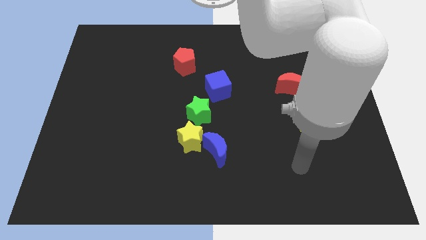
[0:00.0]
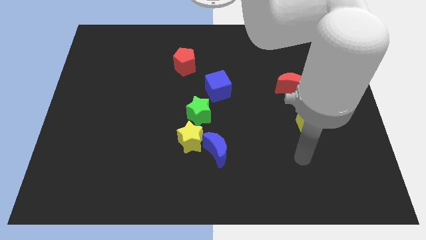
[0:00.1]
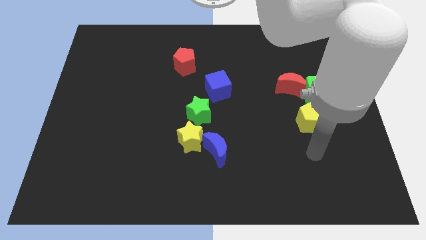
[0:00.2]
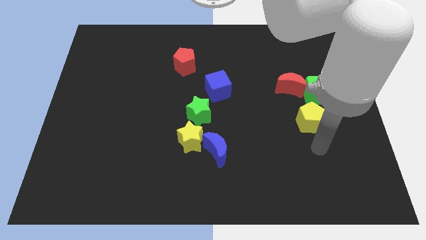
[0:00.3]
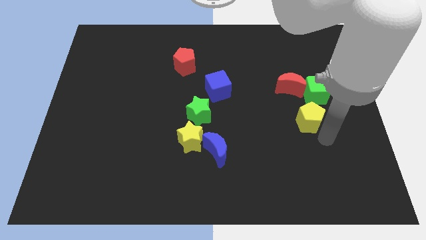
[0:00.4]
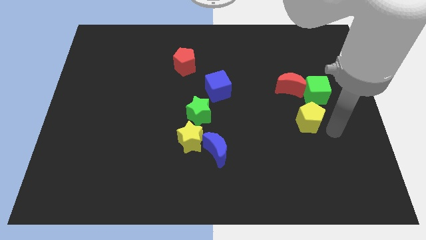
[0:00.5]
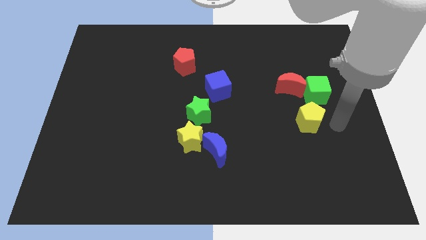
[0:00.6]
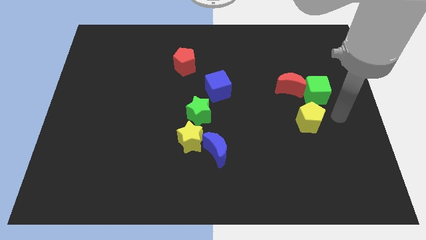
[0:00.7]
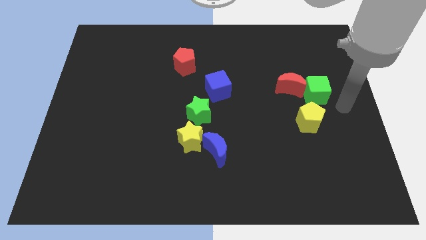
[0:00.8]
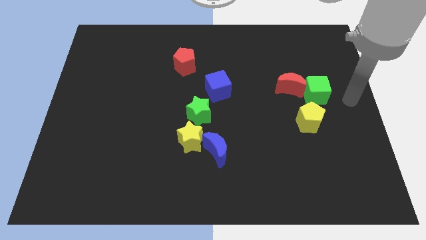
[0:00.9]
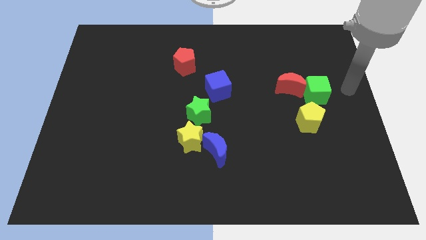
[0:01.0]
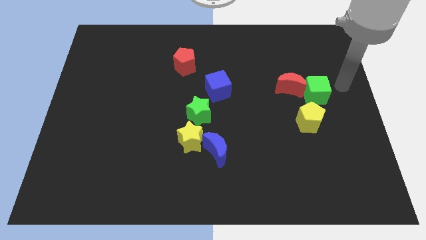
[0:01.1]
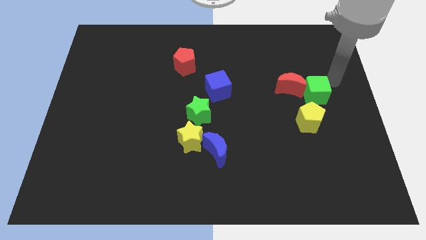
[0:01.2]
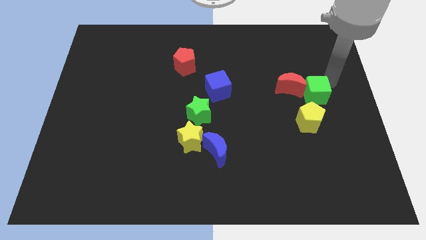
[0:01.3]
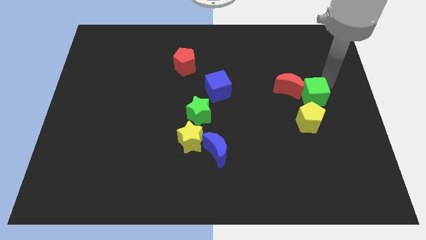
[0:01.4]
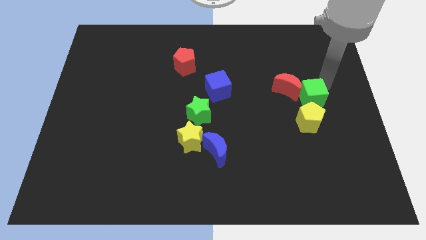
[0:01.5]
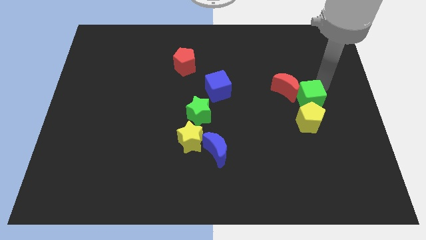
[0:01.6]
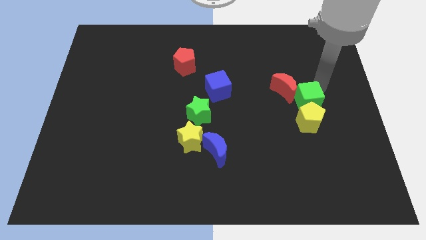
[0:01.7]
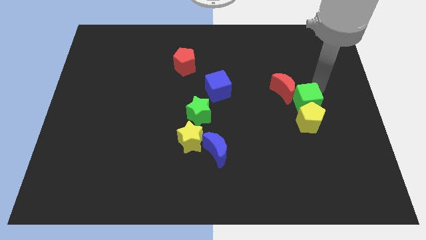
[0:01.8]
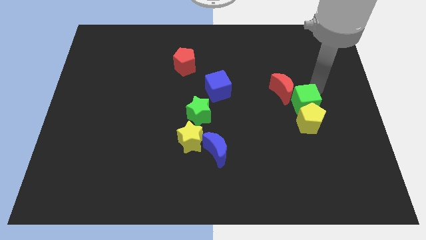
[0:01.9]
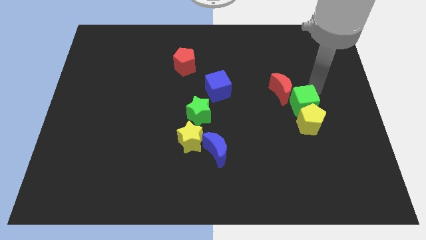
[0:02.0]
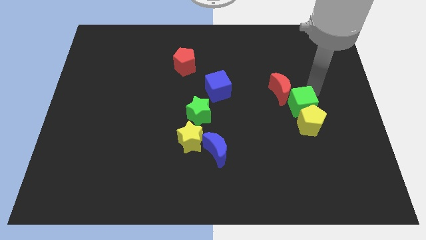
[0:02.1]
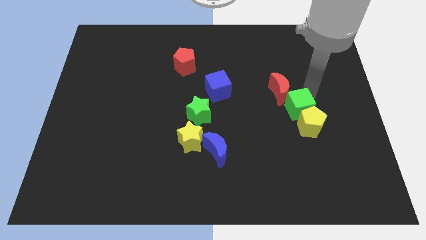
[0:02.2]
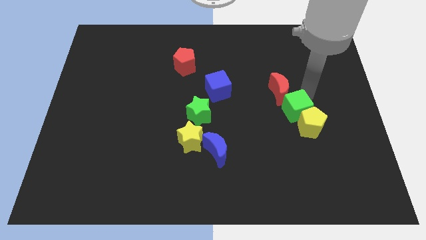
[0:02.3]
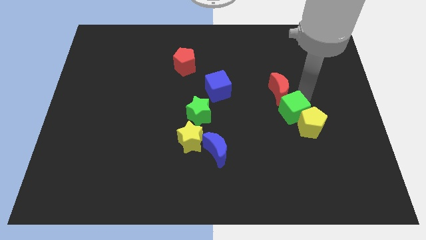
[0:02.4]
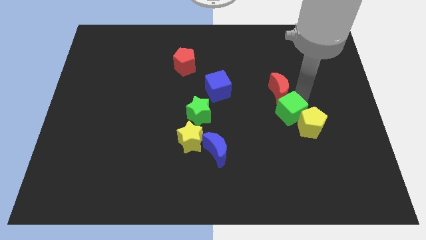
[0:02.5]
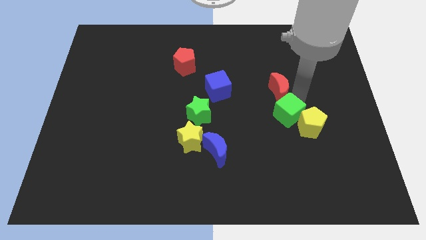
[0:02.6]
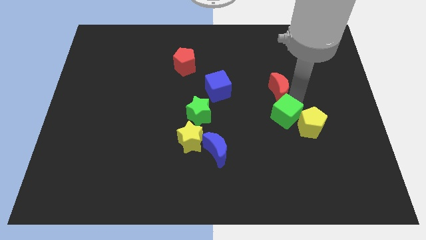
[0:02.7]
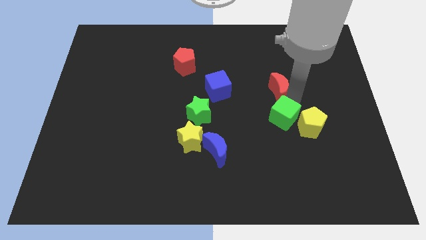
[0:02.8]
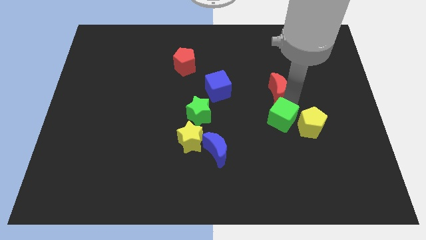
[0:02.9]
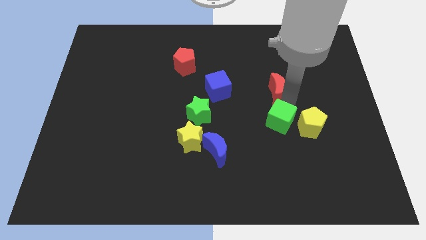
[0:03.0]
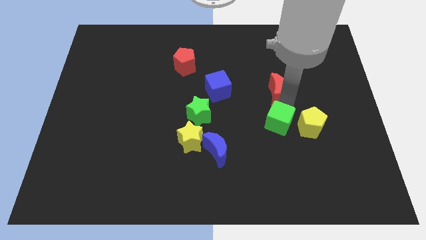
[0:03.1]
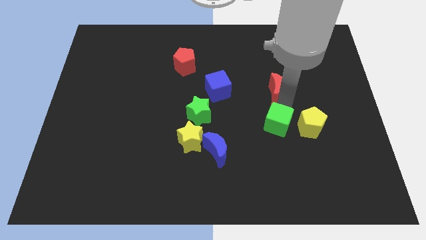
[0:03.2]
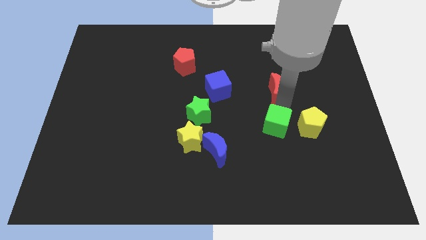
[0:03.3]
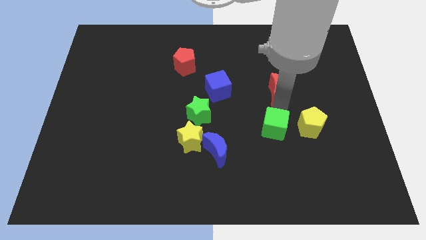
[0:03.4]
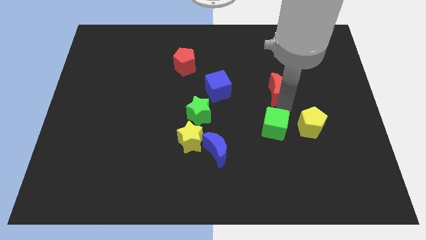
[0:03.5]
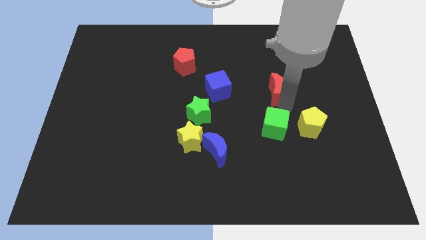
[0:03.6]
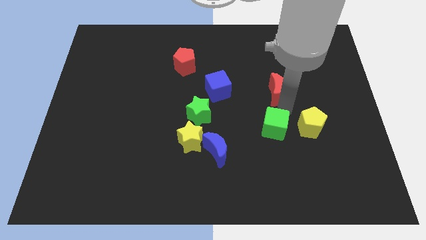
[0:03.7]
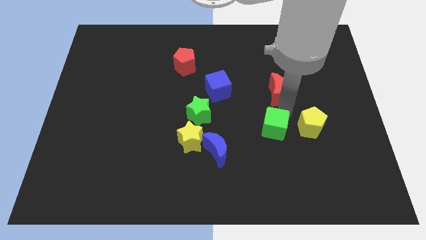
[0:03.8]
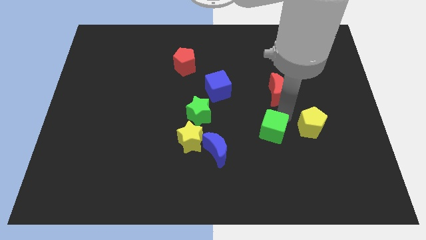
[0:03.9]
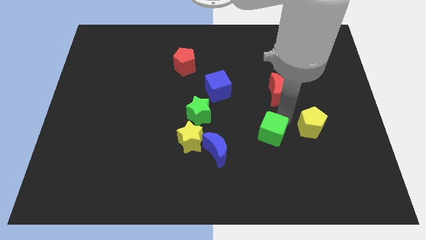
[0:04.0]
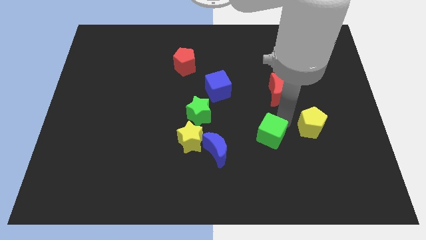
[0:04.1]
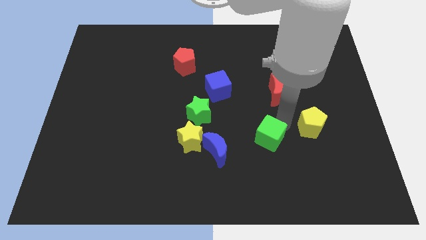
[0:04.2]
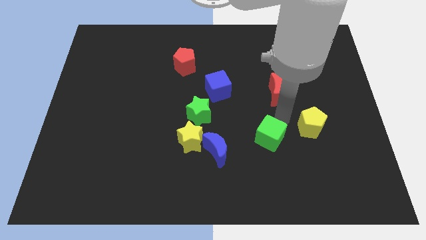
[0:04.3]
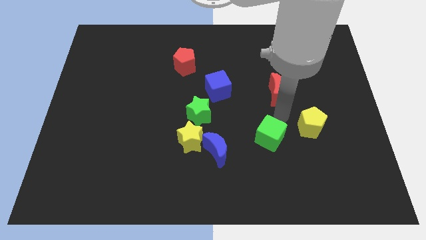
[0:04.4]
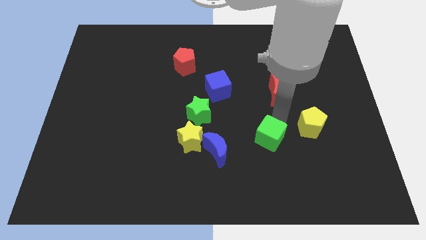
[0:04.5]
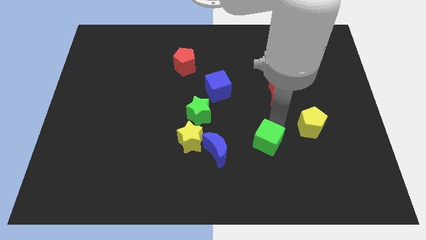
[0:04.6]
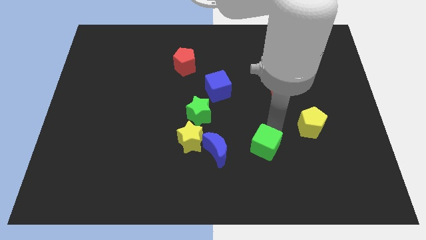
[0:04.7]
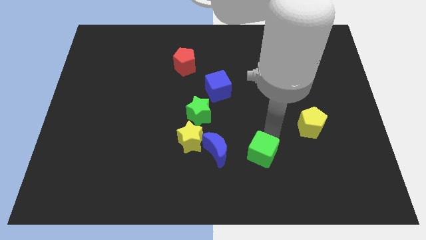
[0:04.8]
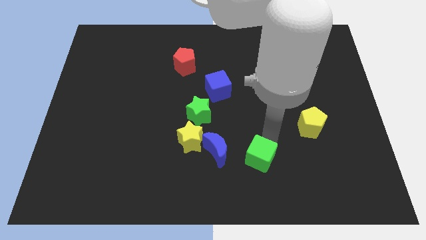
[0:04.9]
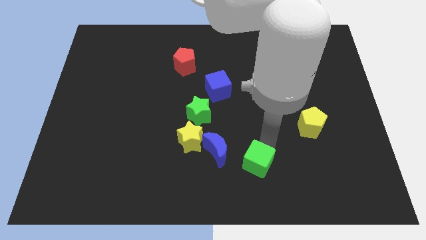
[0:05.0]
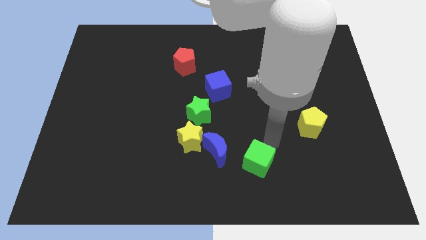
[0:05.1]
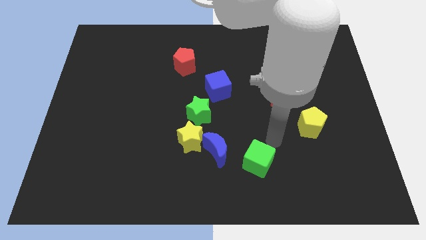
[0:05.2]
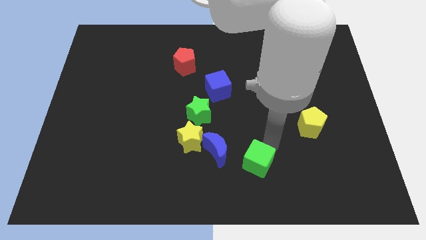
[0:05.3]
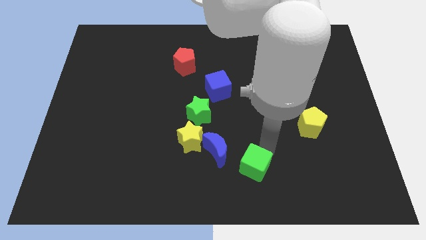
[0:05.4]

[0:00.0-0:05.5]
push the green cube to the bottom

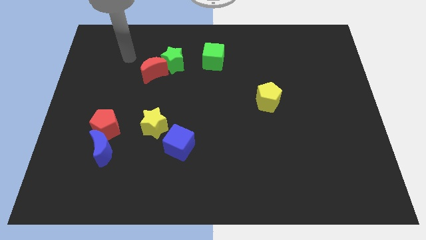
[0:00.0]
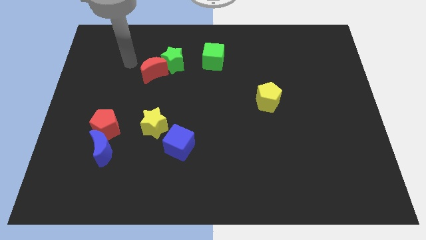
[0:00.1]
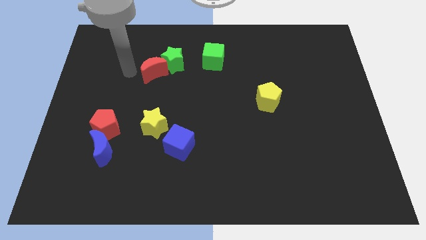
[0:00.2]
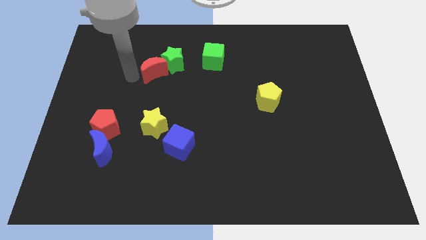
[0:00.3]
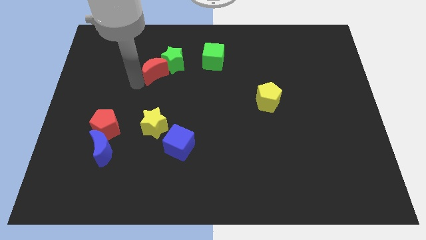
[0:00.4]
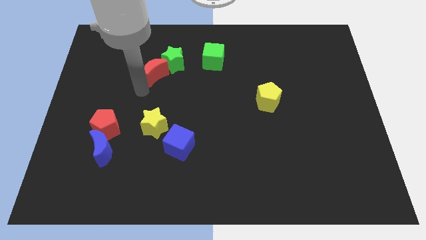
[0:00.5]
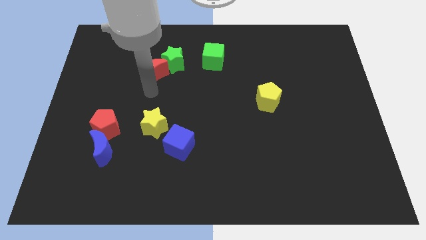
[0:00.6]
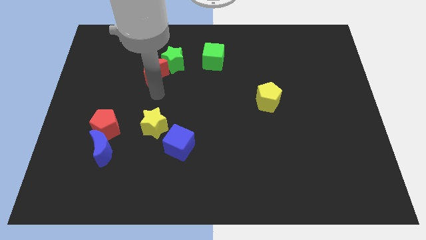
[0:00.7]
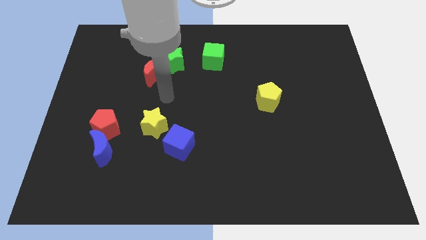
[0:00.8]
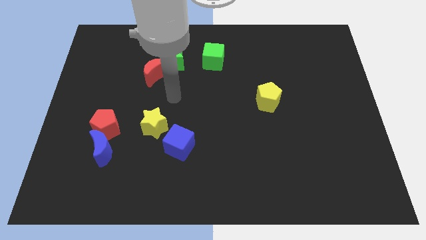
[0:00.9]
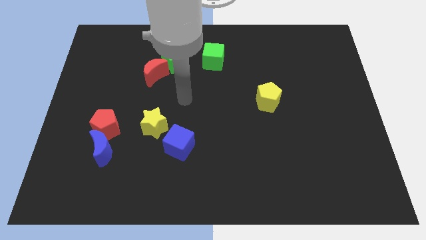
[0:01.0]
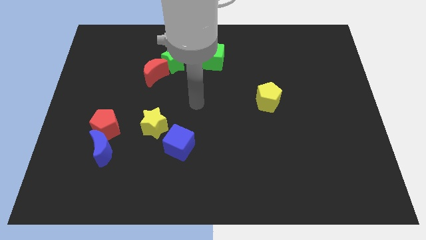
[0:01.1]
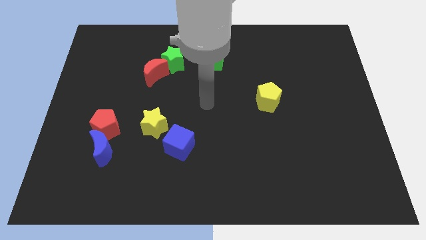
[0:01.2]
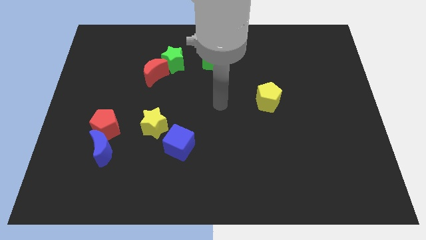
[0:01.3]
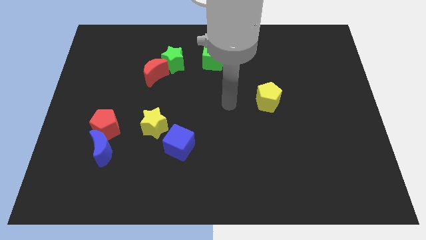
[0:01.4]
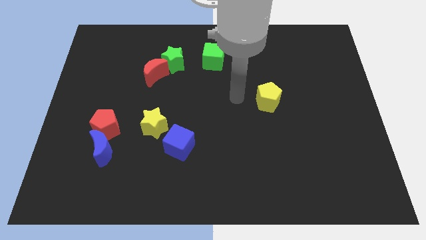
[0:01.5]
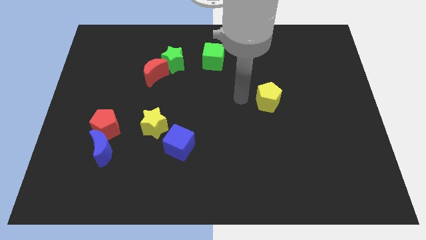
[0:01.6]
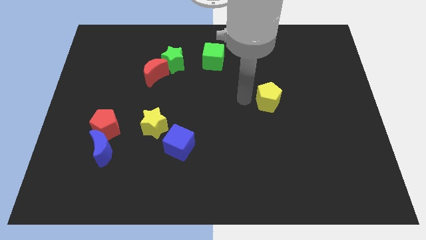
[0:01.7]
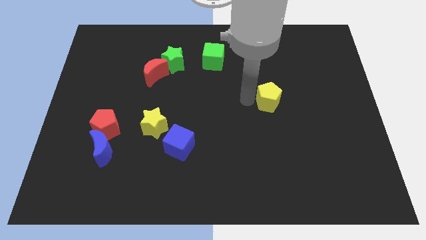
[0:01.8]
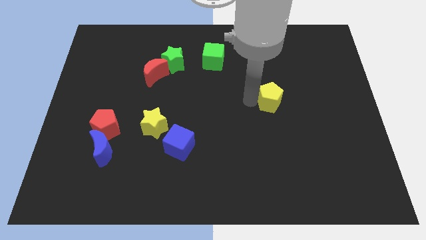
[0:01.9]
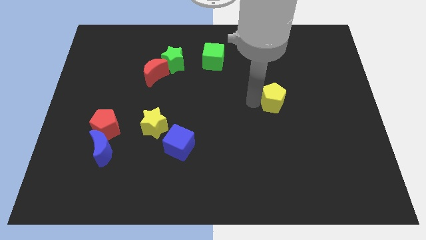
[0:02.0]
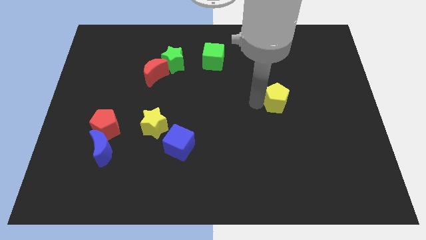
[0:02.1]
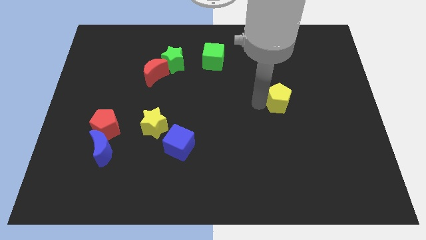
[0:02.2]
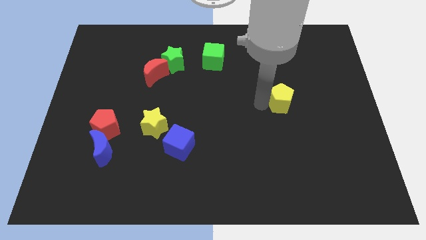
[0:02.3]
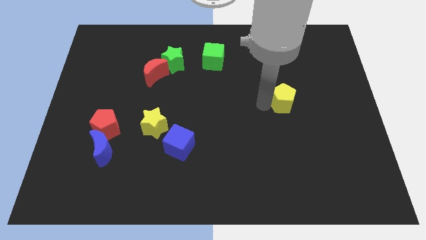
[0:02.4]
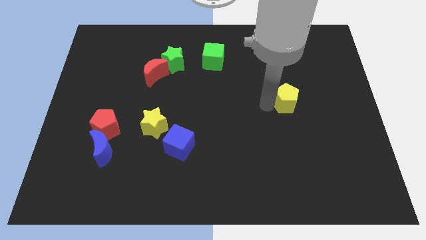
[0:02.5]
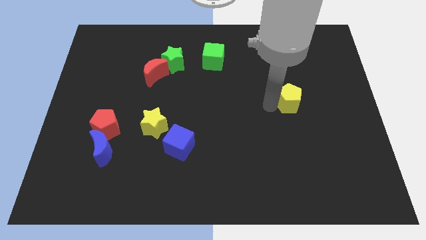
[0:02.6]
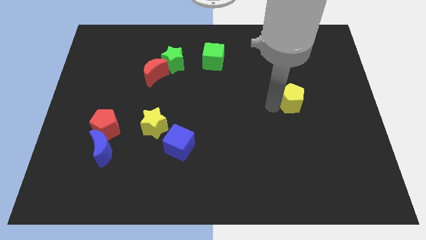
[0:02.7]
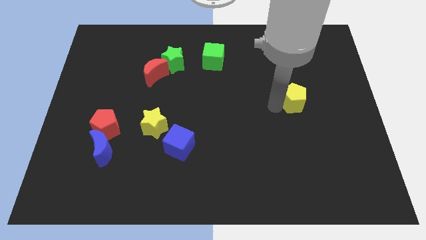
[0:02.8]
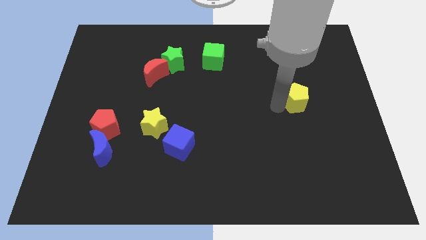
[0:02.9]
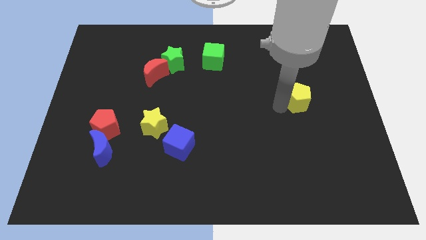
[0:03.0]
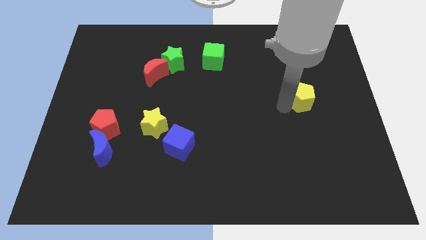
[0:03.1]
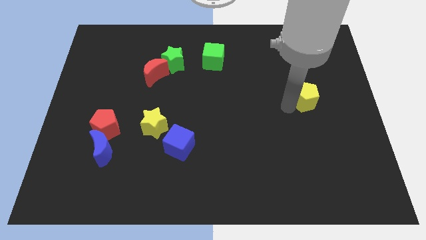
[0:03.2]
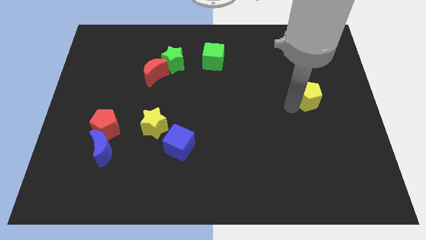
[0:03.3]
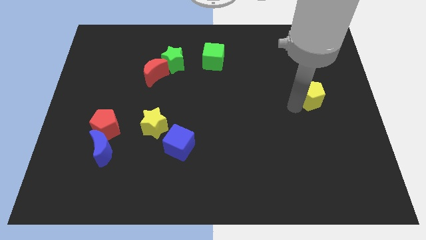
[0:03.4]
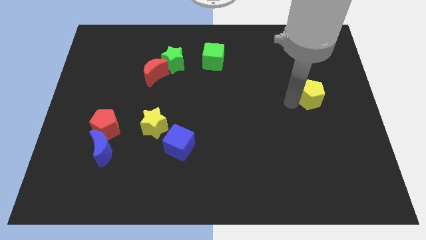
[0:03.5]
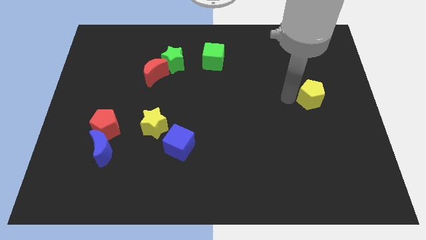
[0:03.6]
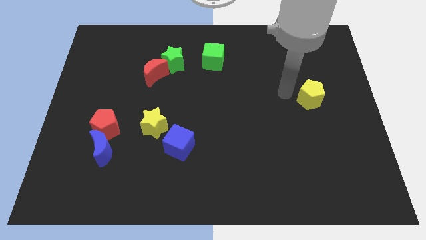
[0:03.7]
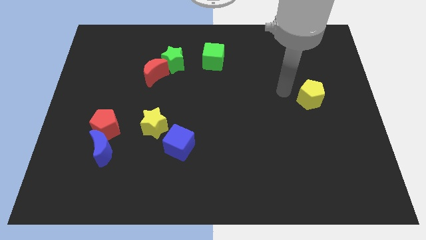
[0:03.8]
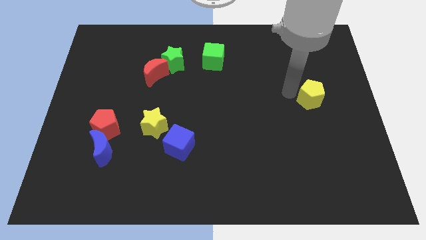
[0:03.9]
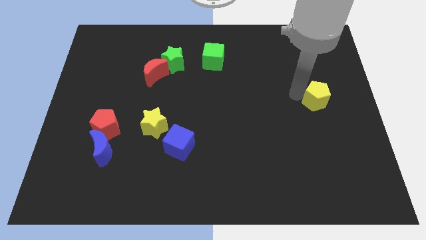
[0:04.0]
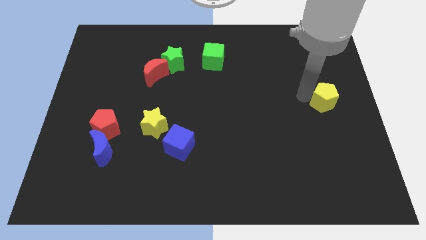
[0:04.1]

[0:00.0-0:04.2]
move the yellow pentagon to the right side
